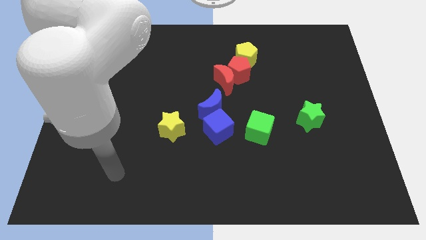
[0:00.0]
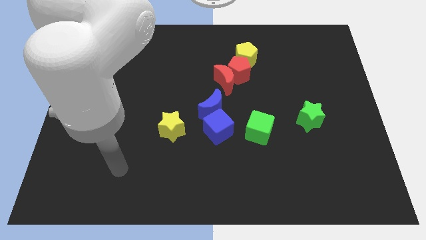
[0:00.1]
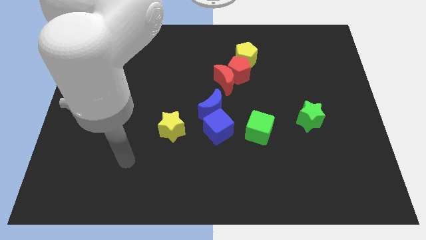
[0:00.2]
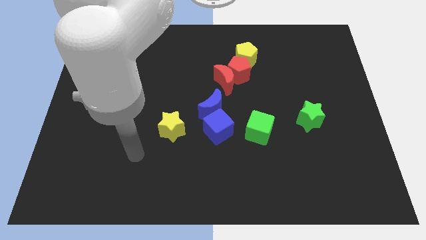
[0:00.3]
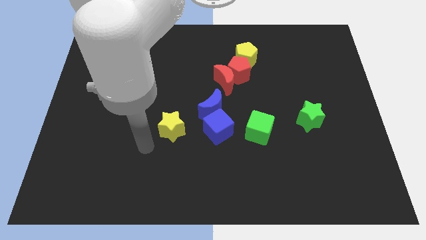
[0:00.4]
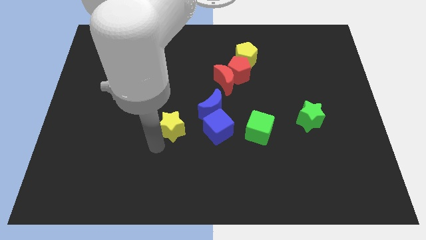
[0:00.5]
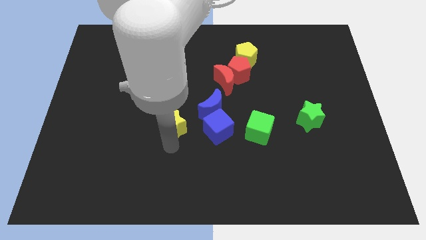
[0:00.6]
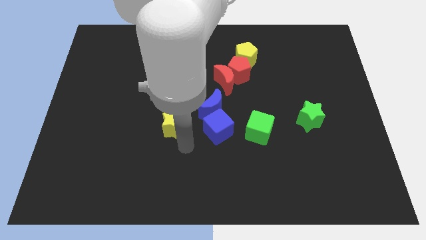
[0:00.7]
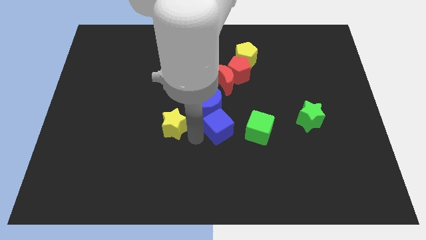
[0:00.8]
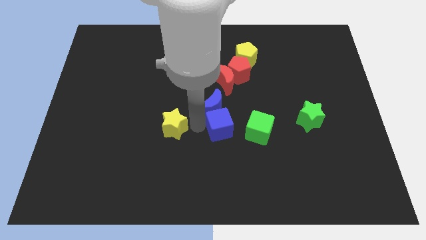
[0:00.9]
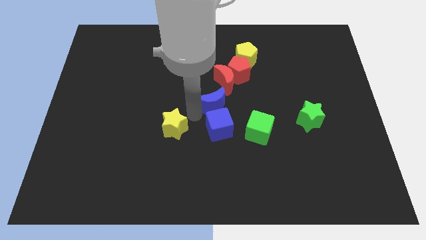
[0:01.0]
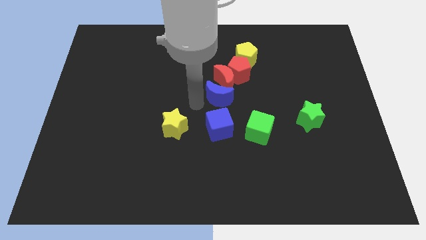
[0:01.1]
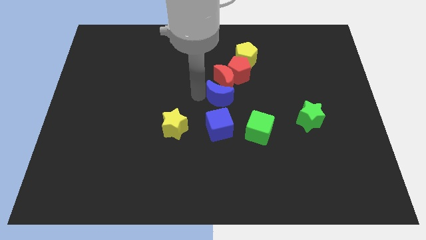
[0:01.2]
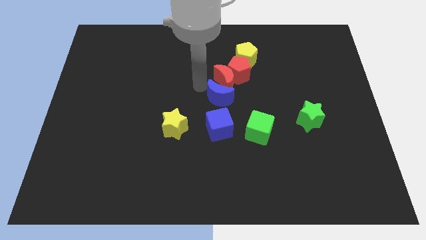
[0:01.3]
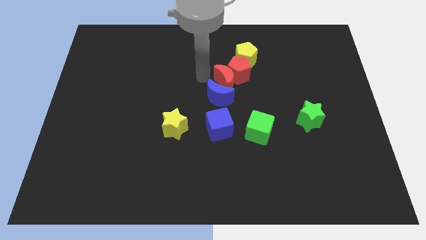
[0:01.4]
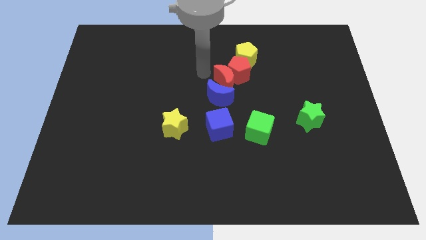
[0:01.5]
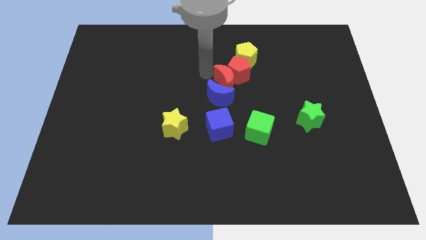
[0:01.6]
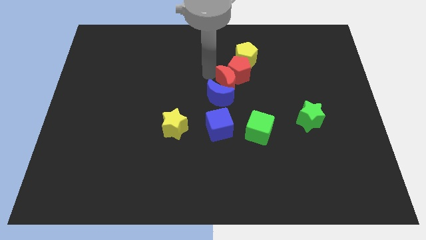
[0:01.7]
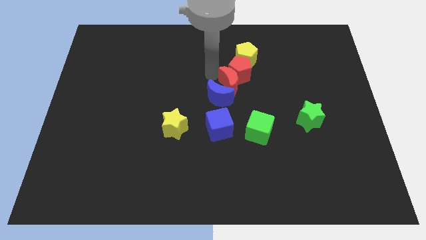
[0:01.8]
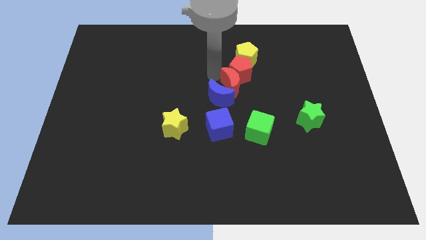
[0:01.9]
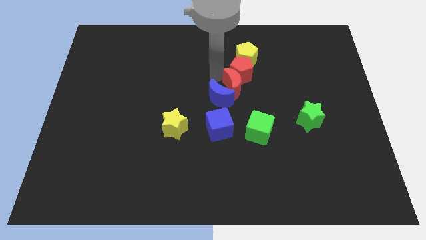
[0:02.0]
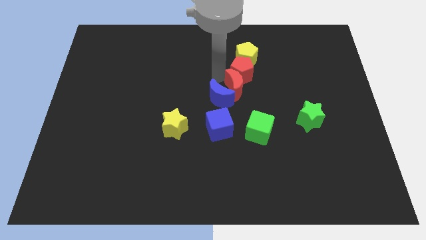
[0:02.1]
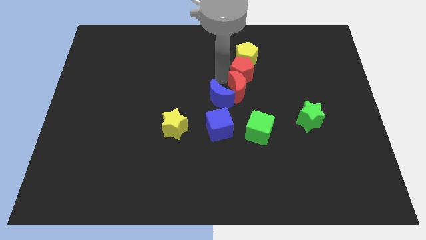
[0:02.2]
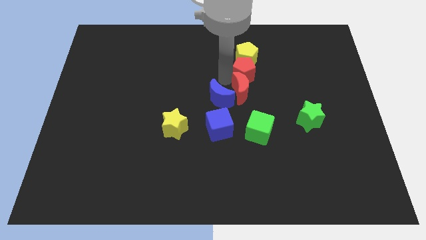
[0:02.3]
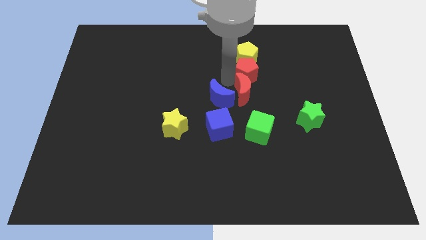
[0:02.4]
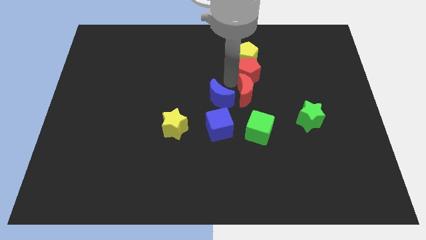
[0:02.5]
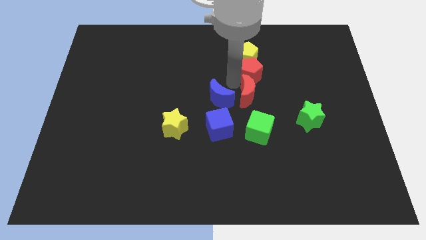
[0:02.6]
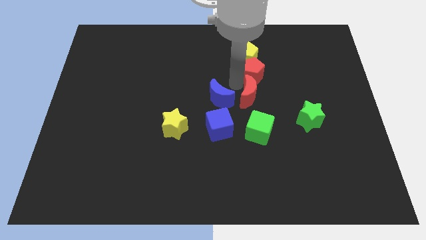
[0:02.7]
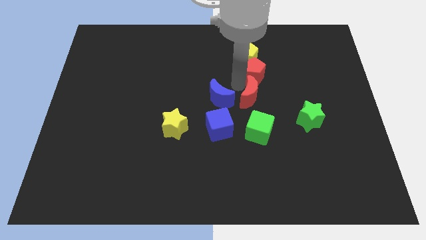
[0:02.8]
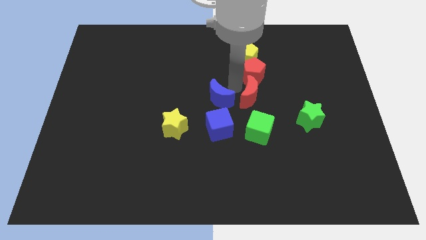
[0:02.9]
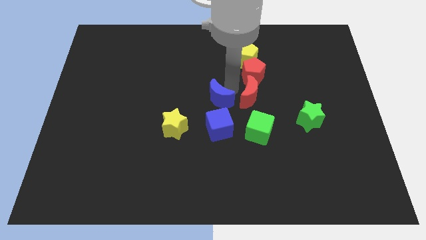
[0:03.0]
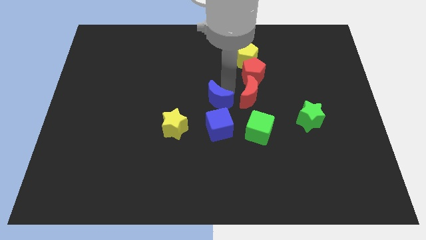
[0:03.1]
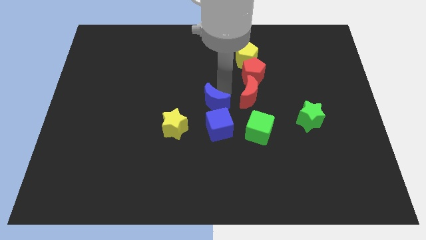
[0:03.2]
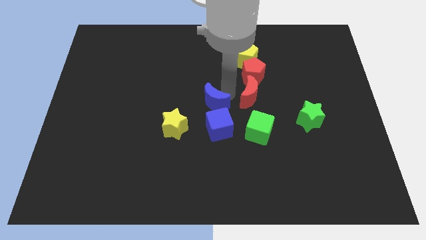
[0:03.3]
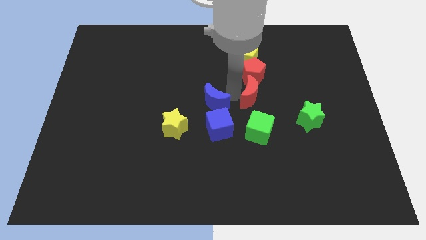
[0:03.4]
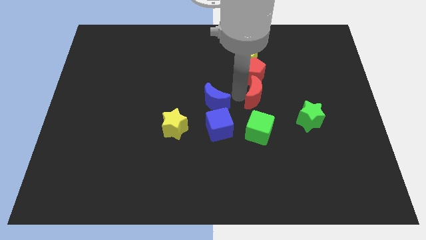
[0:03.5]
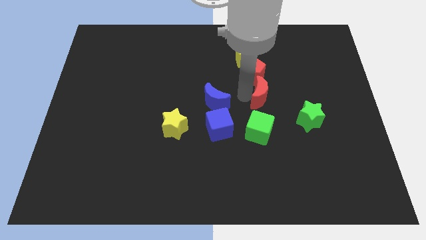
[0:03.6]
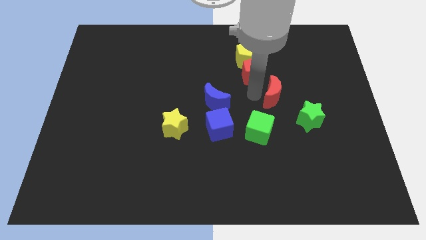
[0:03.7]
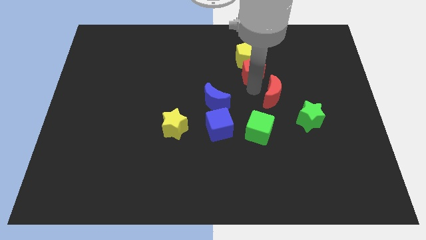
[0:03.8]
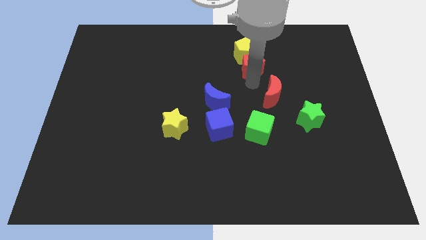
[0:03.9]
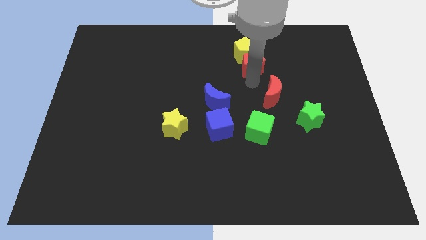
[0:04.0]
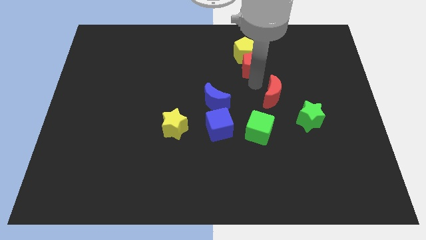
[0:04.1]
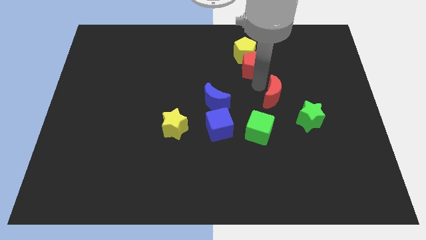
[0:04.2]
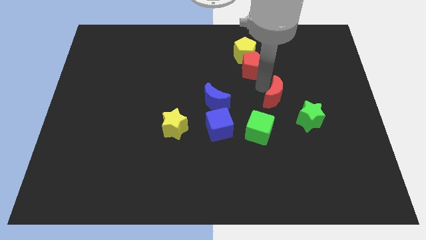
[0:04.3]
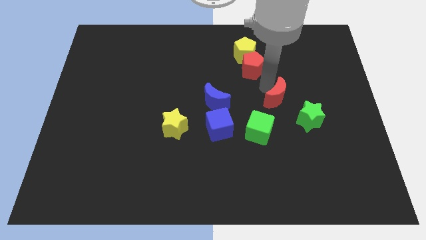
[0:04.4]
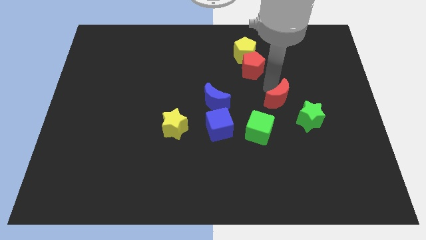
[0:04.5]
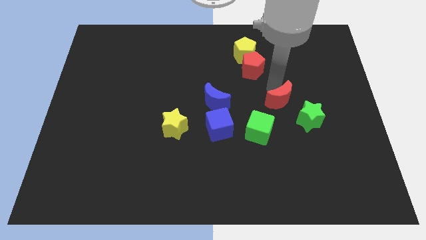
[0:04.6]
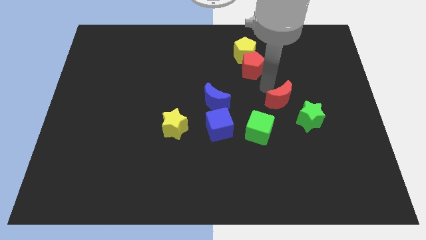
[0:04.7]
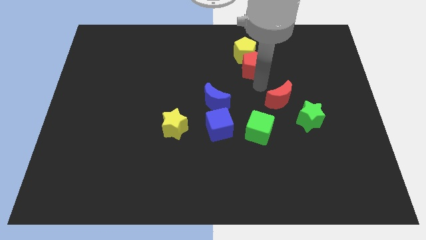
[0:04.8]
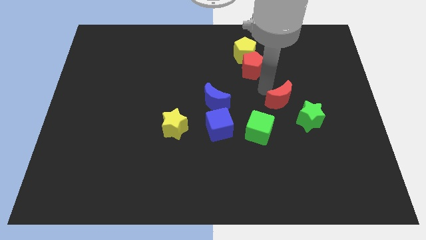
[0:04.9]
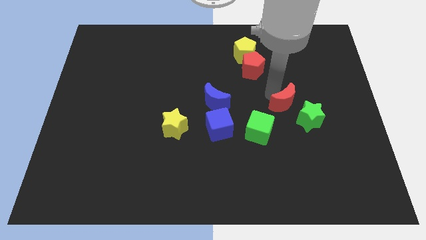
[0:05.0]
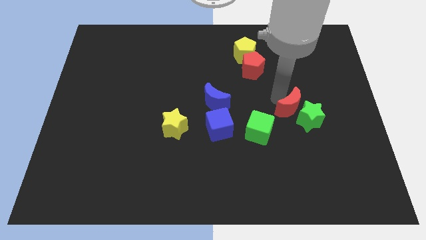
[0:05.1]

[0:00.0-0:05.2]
push the red moon next to the green star

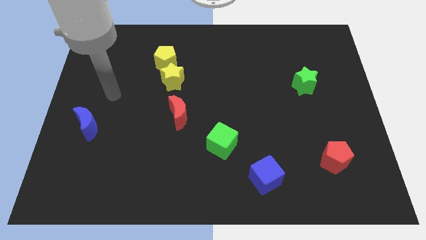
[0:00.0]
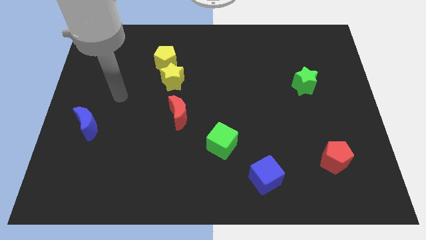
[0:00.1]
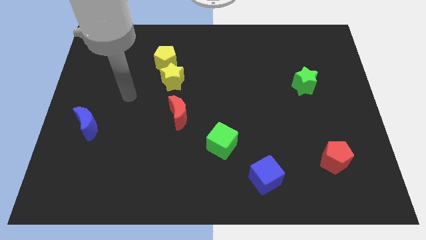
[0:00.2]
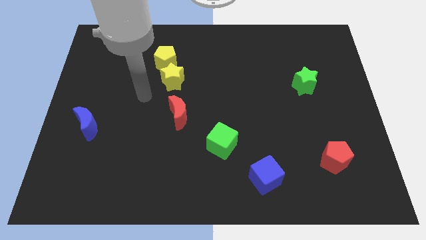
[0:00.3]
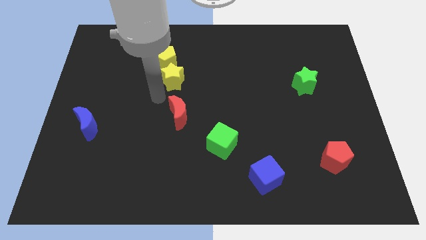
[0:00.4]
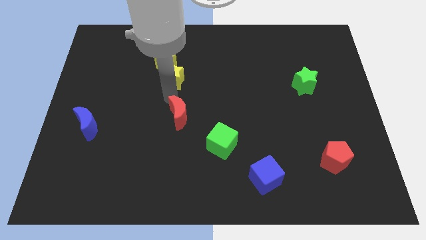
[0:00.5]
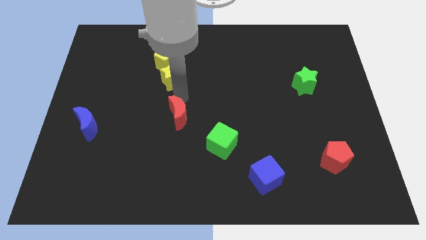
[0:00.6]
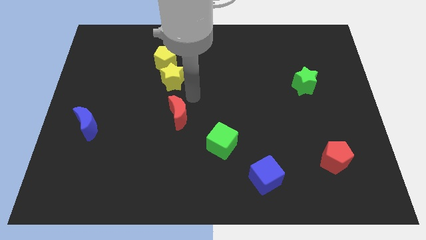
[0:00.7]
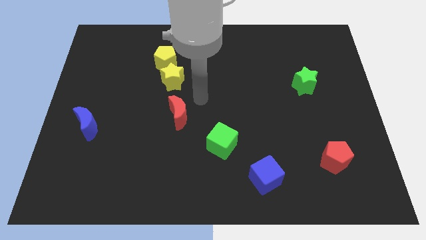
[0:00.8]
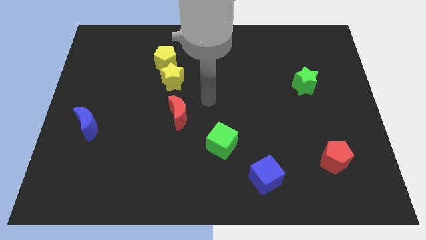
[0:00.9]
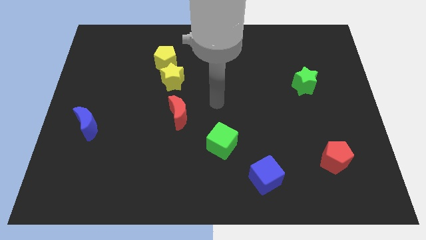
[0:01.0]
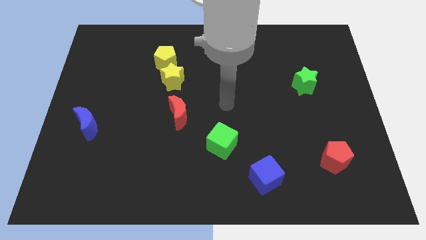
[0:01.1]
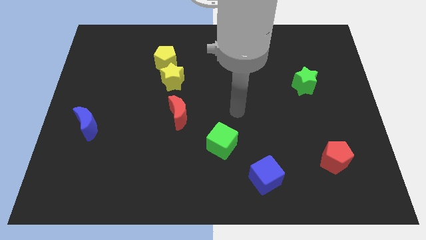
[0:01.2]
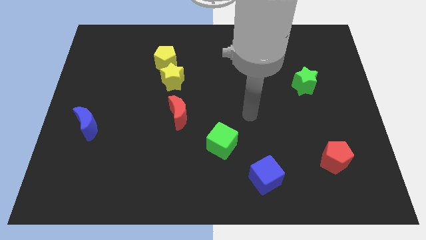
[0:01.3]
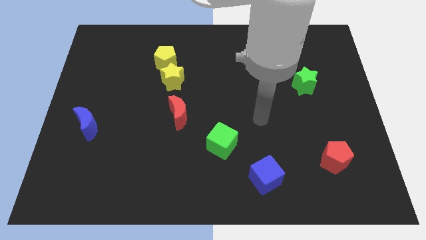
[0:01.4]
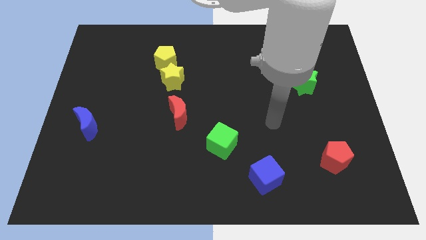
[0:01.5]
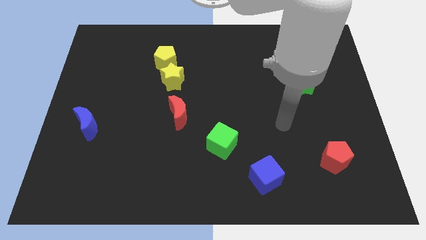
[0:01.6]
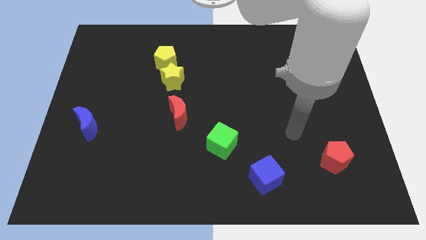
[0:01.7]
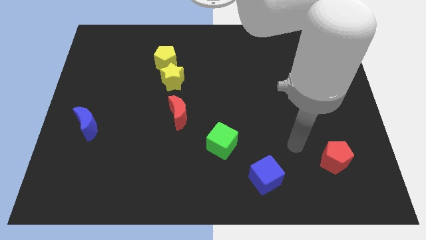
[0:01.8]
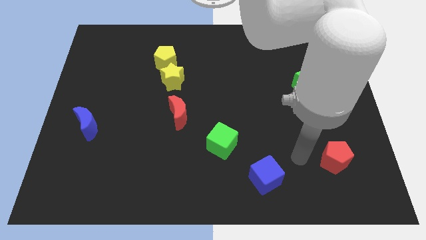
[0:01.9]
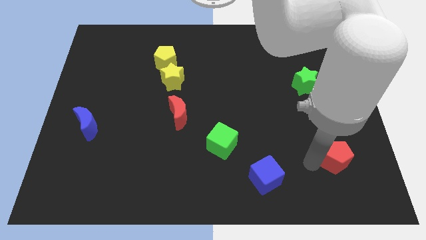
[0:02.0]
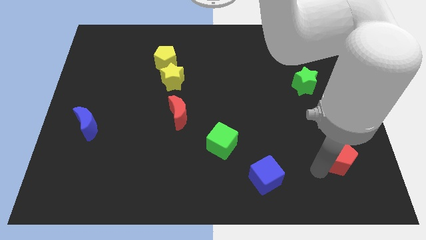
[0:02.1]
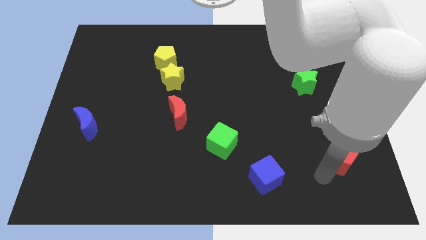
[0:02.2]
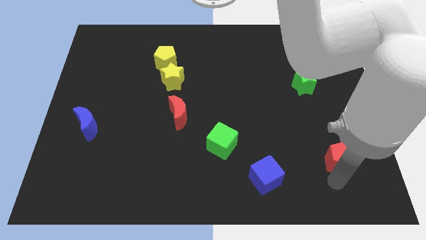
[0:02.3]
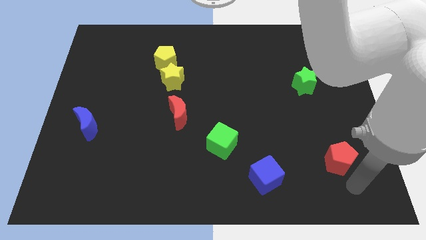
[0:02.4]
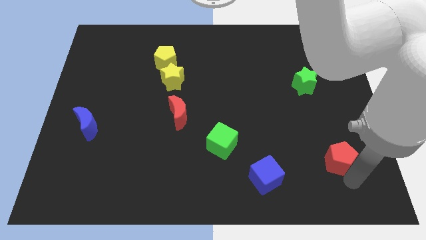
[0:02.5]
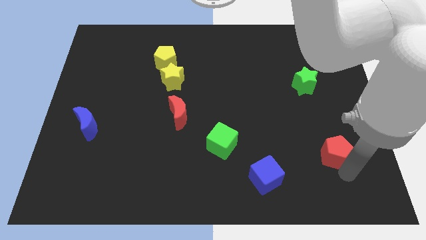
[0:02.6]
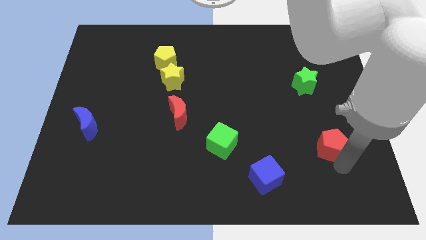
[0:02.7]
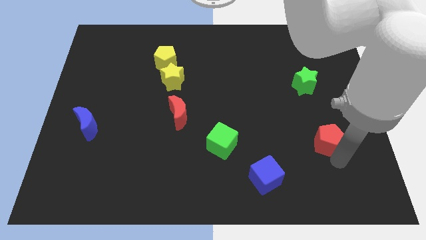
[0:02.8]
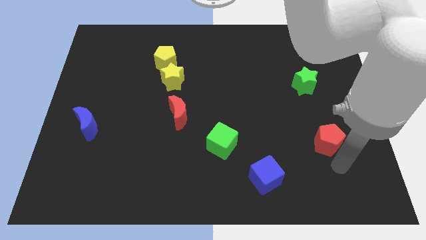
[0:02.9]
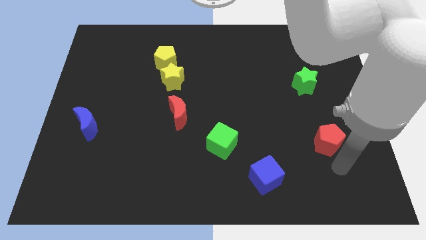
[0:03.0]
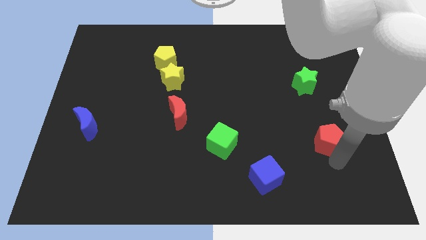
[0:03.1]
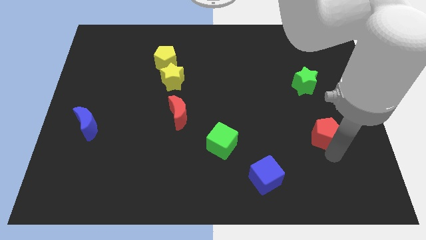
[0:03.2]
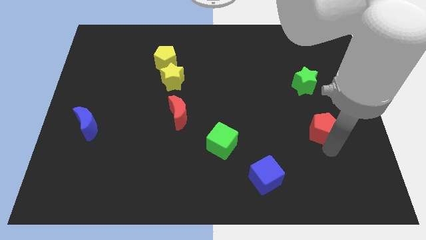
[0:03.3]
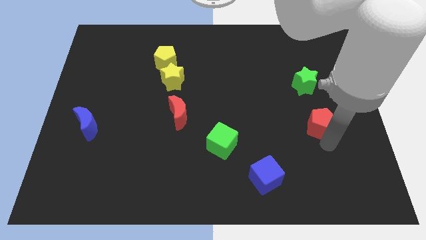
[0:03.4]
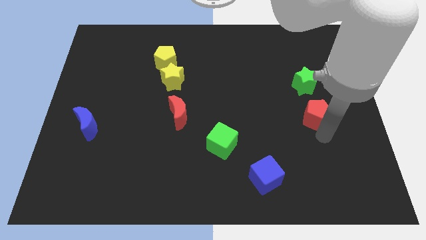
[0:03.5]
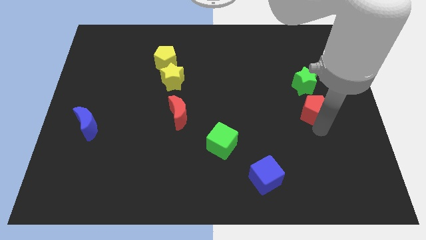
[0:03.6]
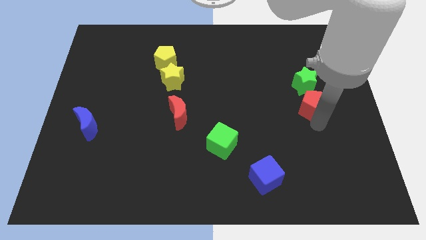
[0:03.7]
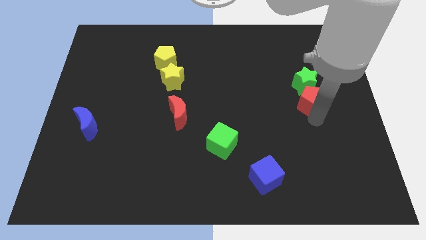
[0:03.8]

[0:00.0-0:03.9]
push the red pentagon next to the green star
